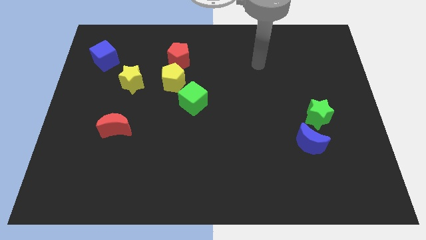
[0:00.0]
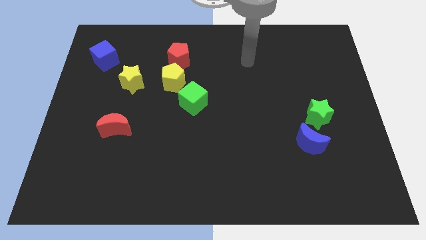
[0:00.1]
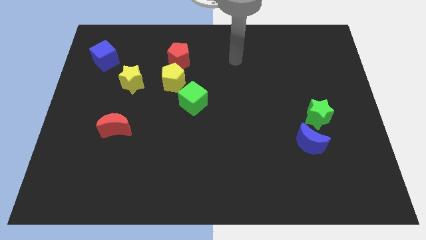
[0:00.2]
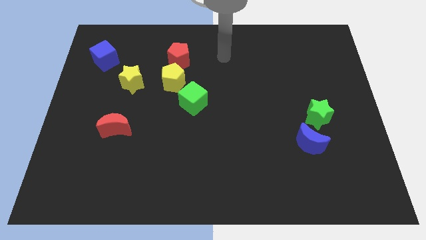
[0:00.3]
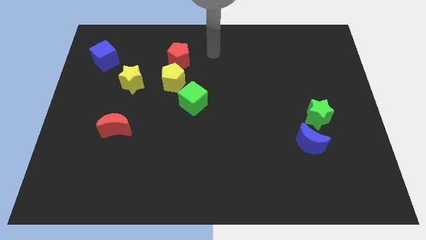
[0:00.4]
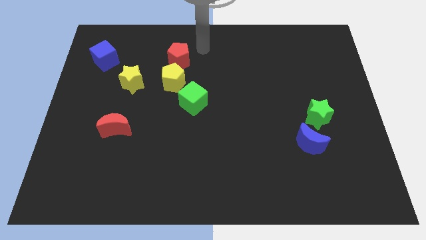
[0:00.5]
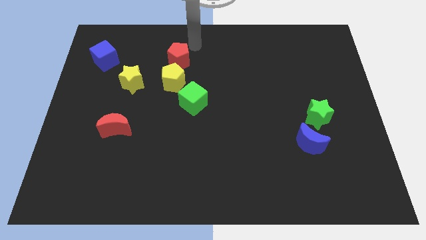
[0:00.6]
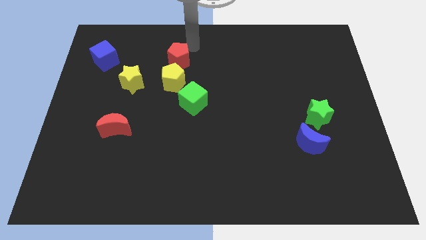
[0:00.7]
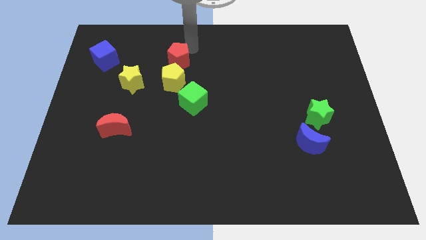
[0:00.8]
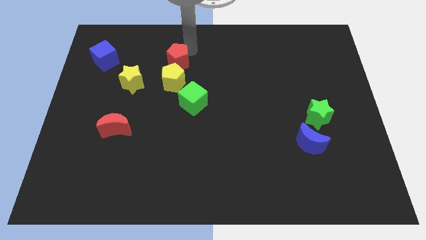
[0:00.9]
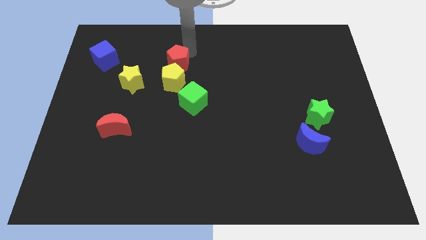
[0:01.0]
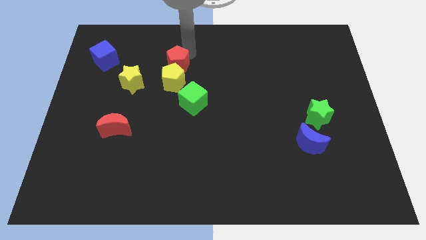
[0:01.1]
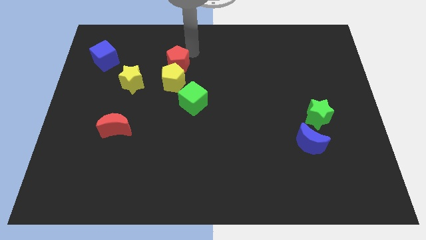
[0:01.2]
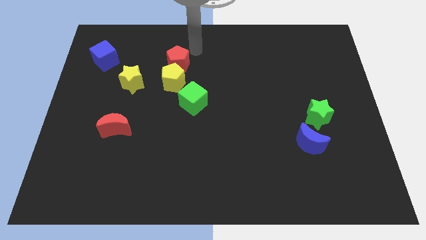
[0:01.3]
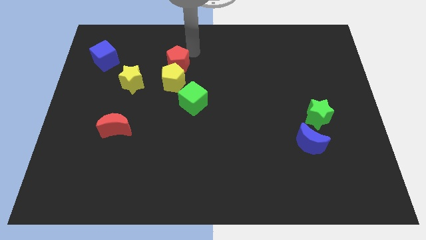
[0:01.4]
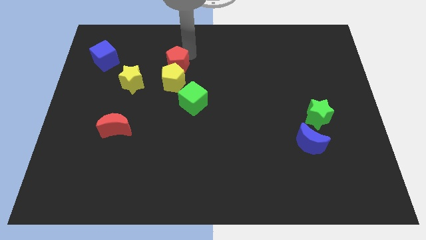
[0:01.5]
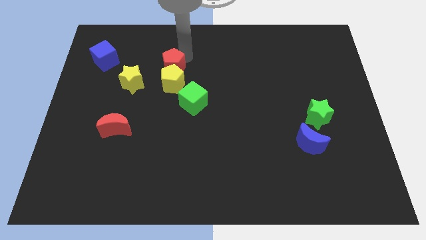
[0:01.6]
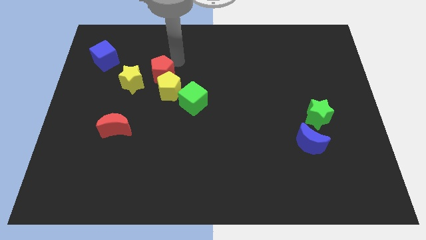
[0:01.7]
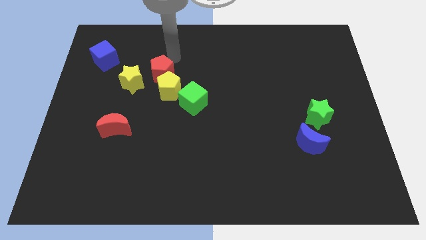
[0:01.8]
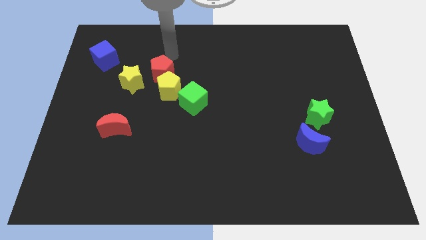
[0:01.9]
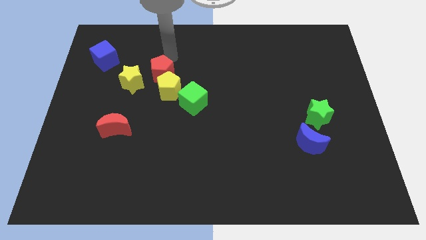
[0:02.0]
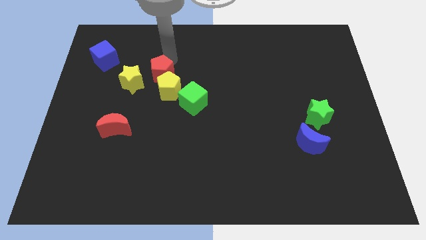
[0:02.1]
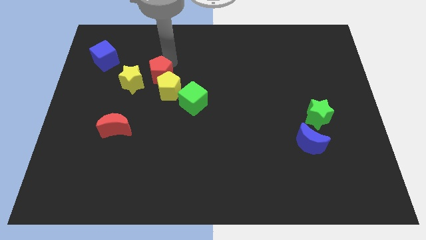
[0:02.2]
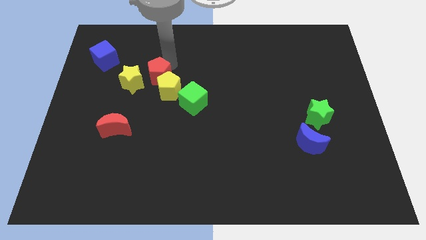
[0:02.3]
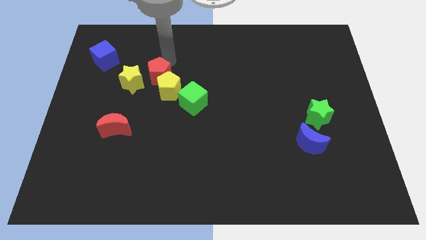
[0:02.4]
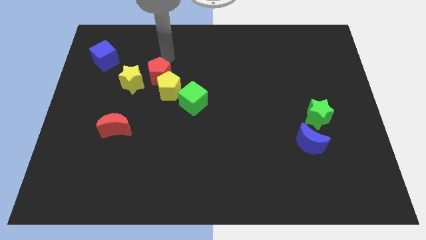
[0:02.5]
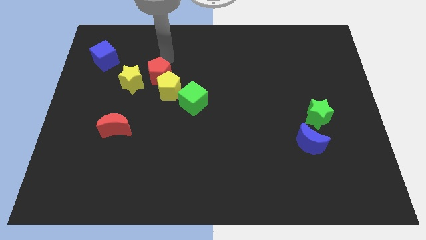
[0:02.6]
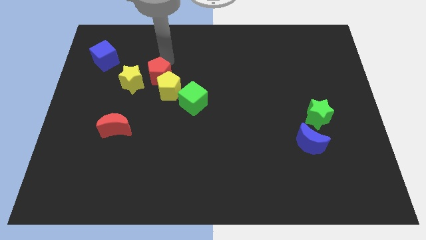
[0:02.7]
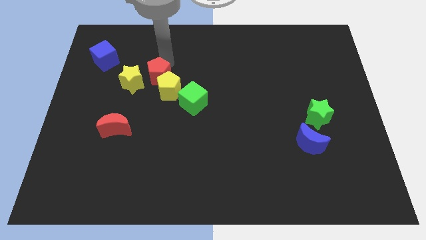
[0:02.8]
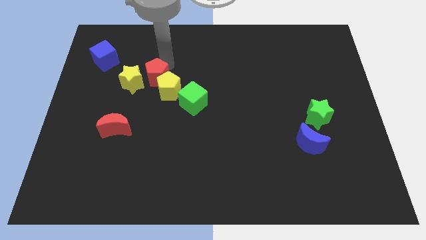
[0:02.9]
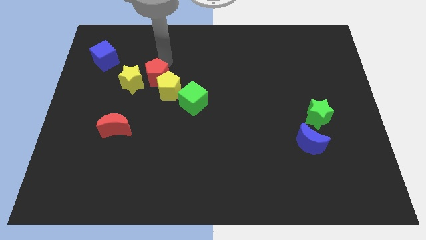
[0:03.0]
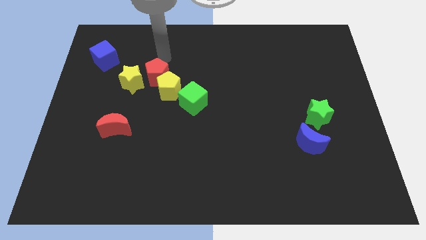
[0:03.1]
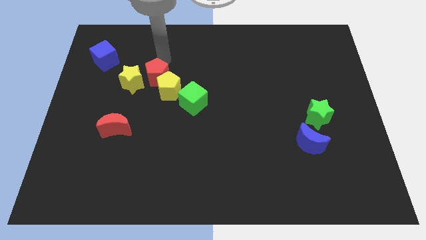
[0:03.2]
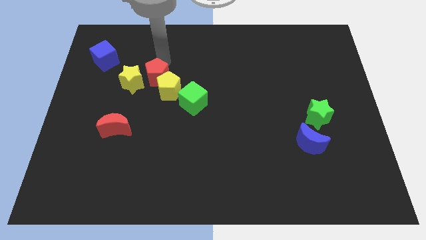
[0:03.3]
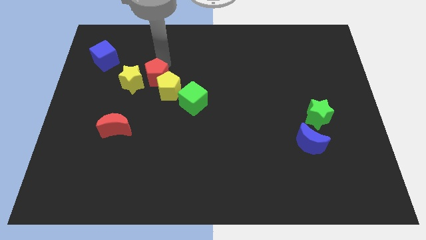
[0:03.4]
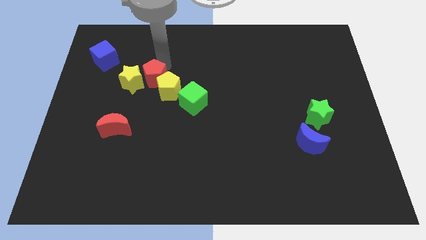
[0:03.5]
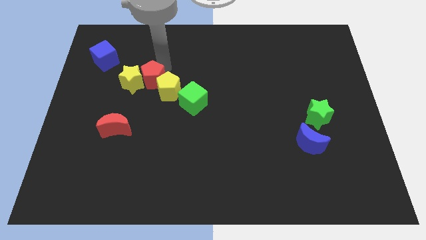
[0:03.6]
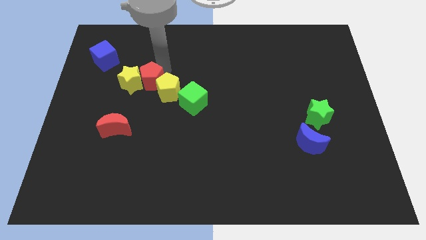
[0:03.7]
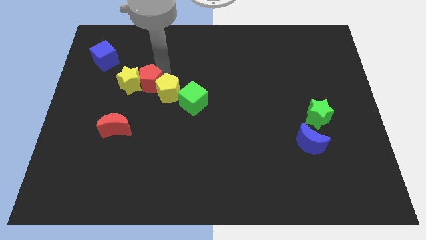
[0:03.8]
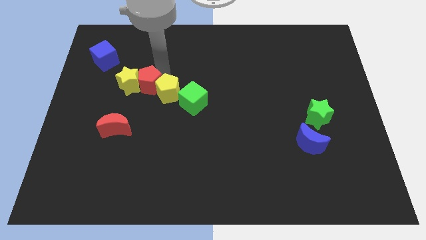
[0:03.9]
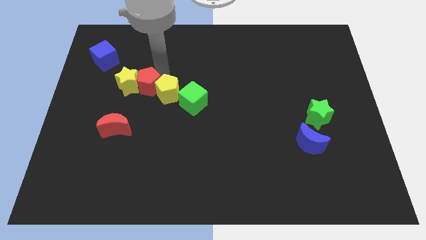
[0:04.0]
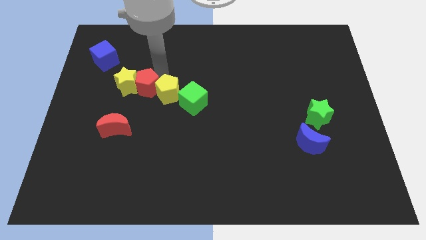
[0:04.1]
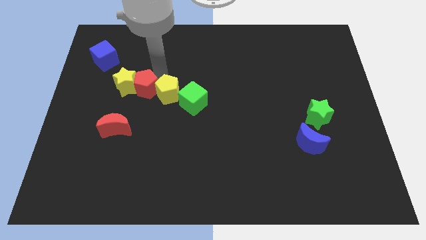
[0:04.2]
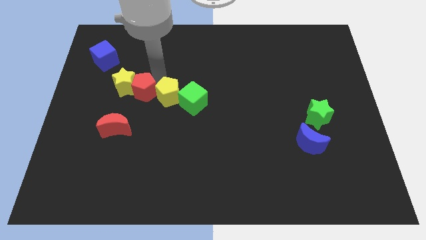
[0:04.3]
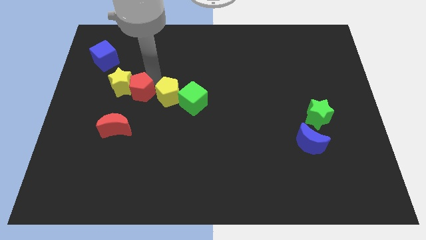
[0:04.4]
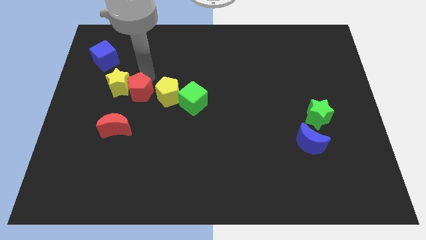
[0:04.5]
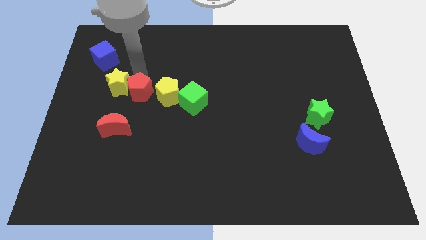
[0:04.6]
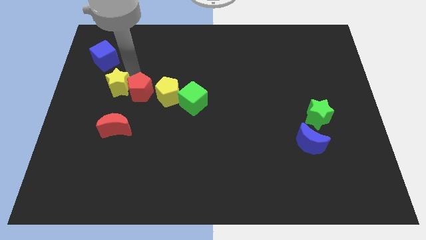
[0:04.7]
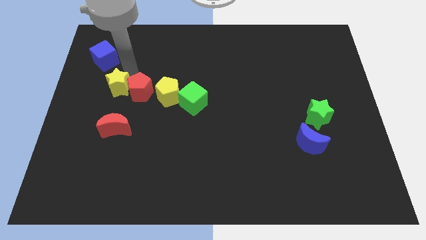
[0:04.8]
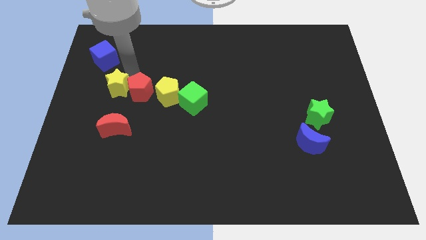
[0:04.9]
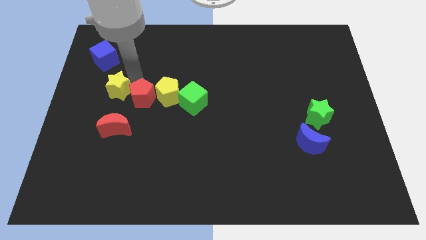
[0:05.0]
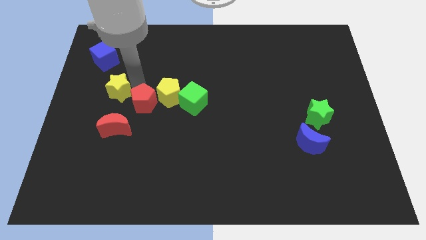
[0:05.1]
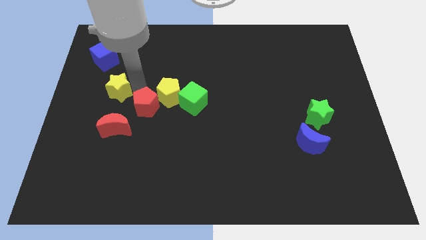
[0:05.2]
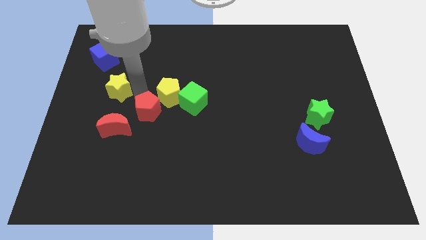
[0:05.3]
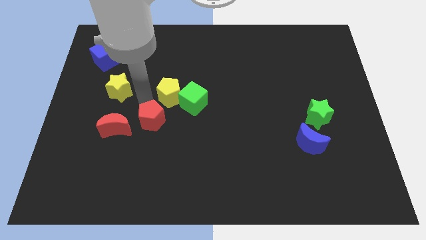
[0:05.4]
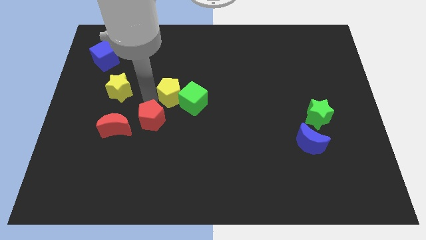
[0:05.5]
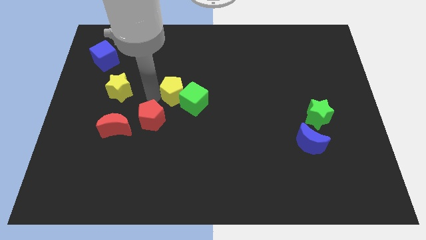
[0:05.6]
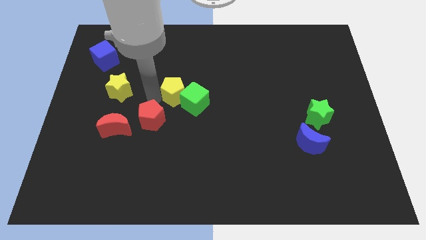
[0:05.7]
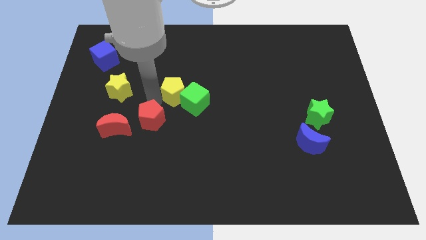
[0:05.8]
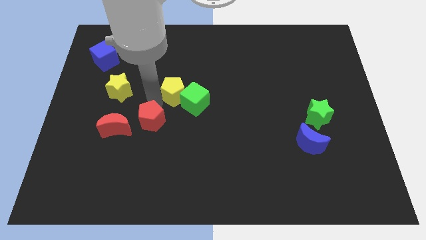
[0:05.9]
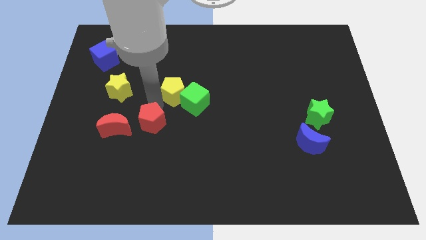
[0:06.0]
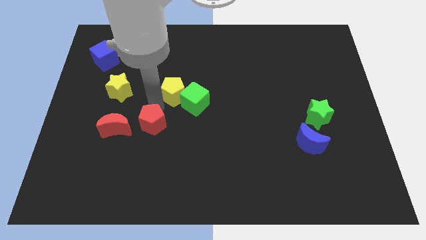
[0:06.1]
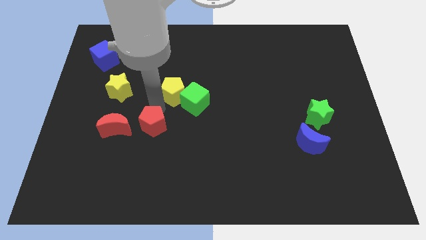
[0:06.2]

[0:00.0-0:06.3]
slide the red pentagon down

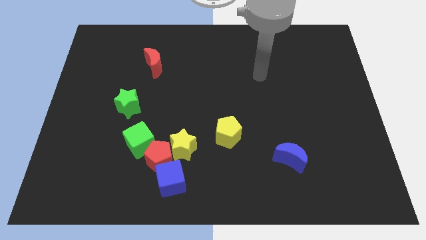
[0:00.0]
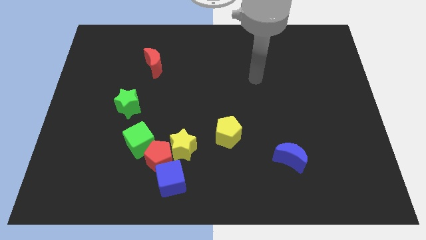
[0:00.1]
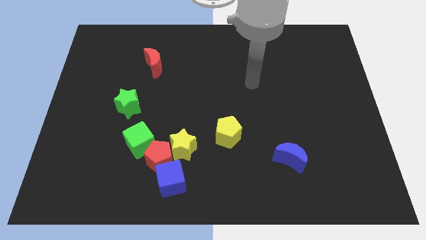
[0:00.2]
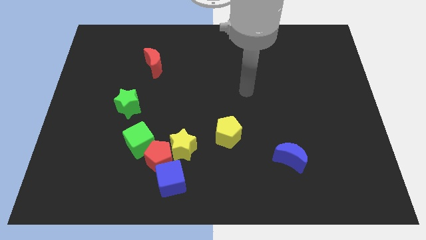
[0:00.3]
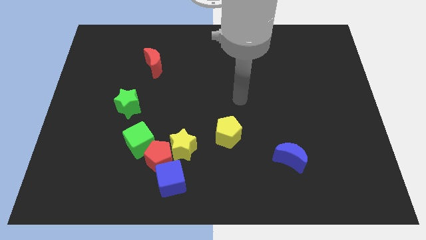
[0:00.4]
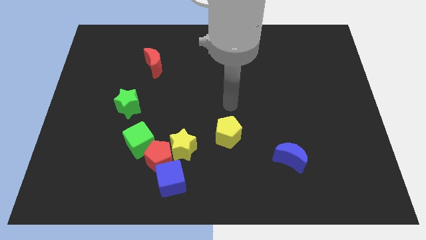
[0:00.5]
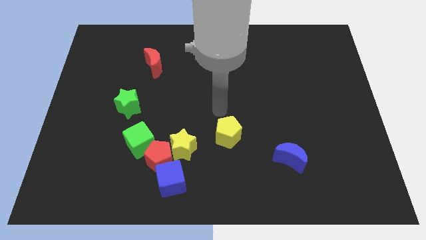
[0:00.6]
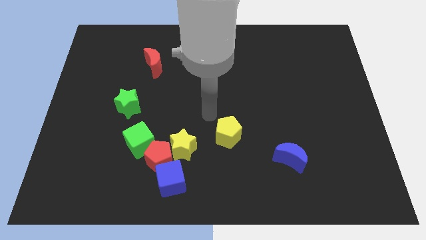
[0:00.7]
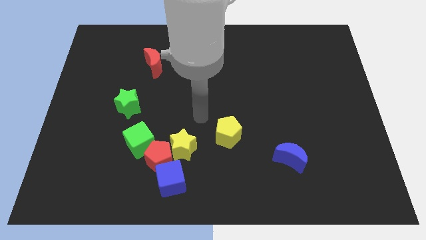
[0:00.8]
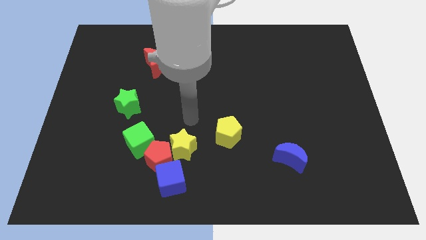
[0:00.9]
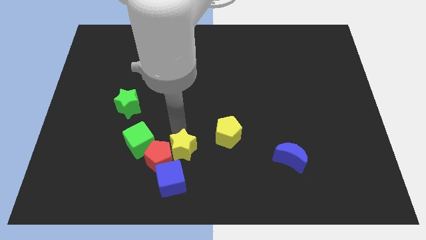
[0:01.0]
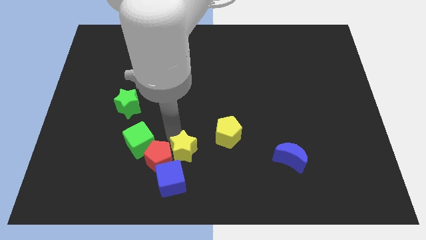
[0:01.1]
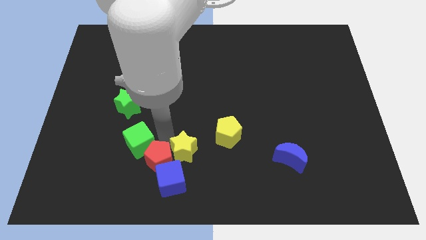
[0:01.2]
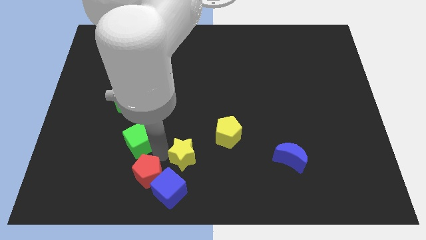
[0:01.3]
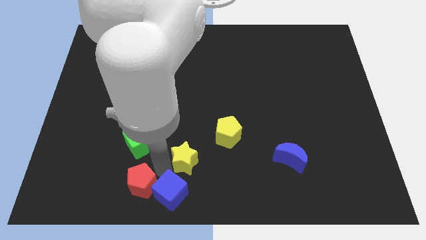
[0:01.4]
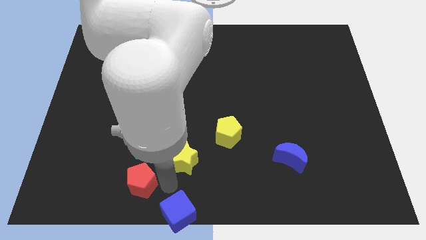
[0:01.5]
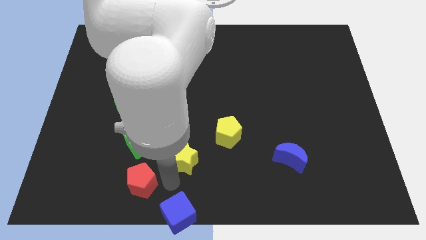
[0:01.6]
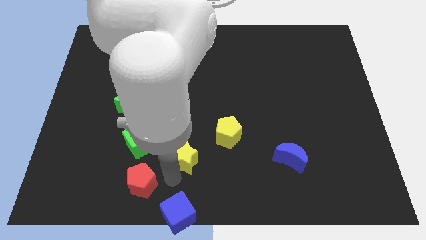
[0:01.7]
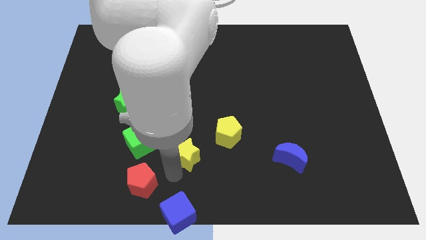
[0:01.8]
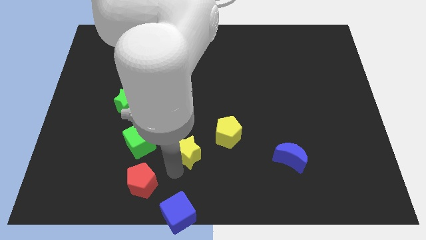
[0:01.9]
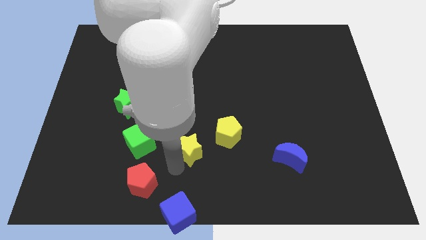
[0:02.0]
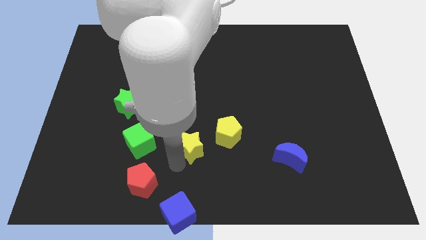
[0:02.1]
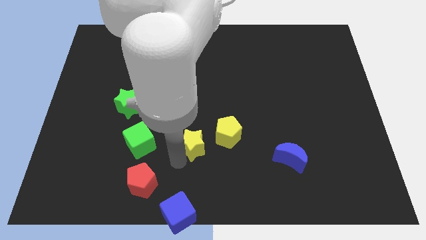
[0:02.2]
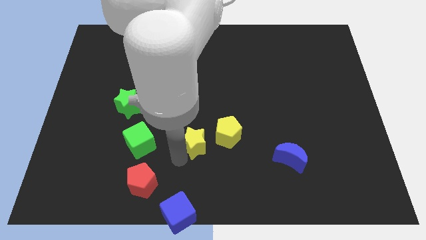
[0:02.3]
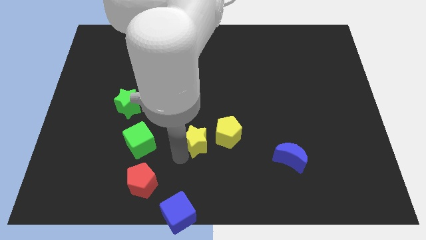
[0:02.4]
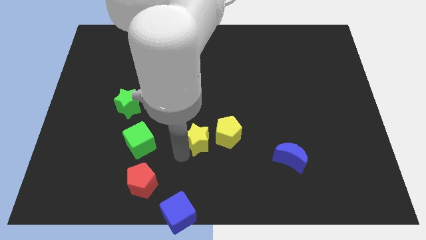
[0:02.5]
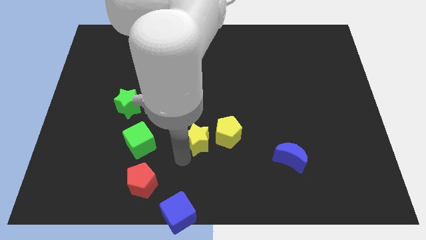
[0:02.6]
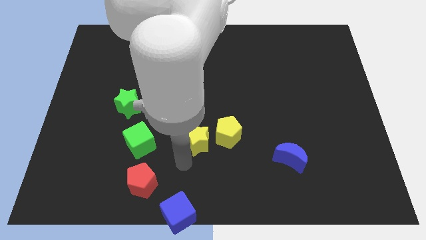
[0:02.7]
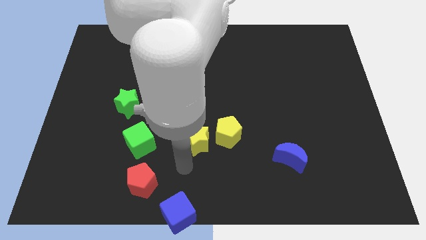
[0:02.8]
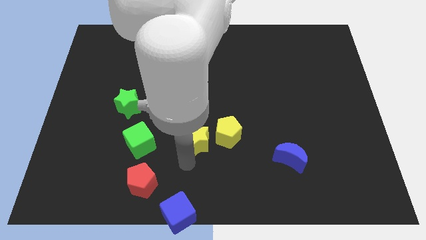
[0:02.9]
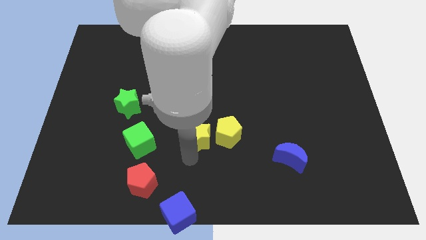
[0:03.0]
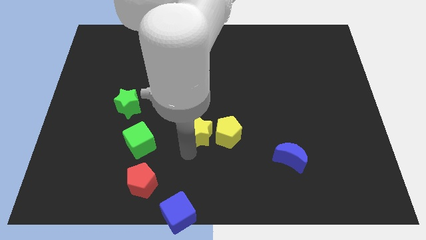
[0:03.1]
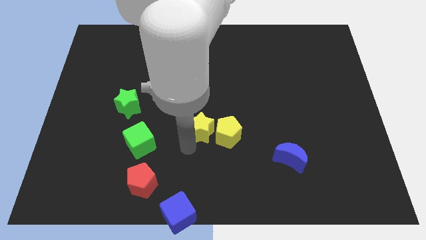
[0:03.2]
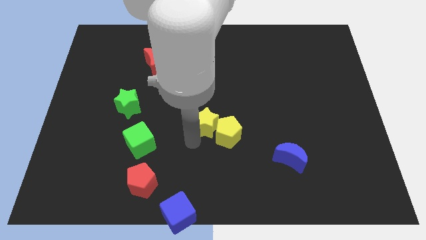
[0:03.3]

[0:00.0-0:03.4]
slightly push the yellow star up and right diagonally
